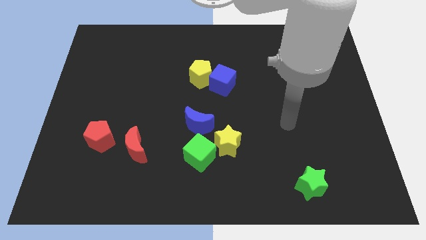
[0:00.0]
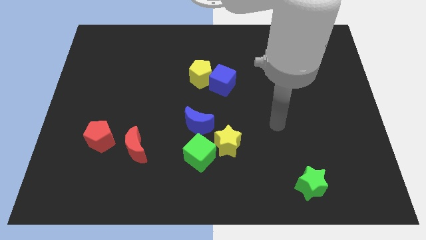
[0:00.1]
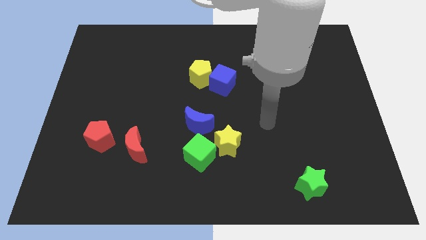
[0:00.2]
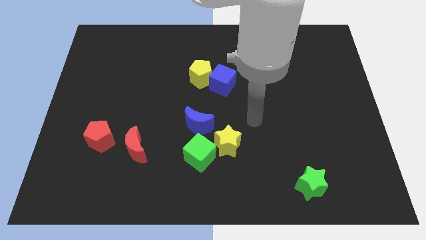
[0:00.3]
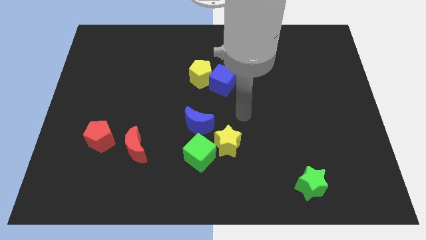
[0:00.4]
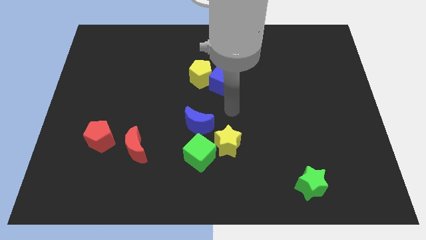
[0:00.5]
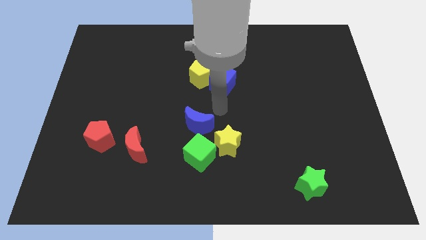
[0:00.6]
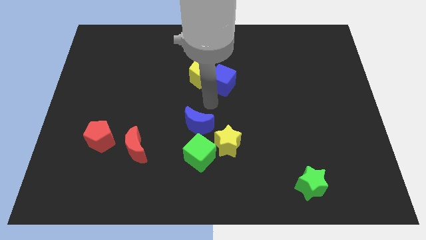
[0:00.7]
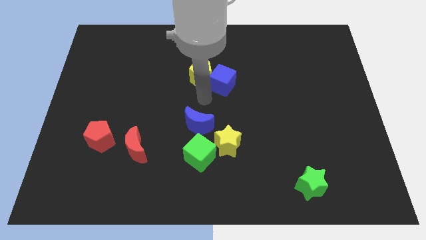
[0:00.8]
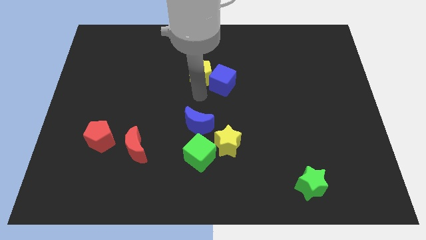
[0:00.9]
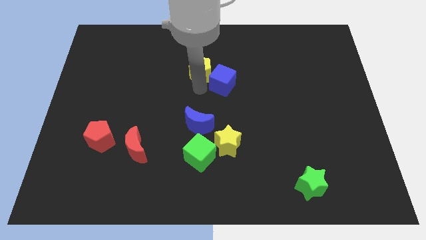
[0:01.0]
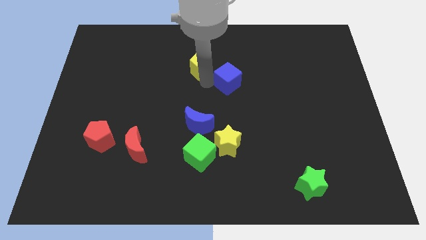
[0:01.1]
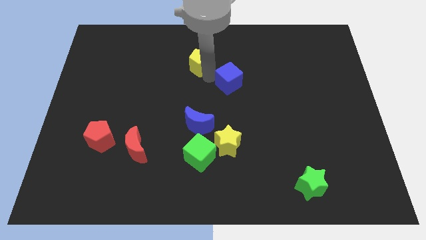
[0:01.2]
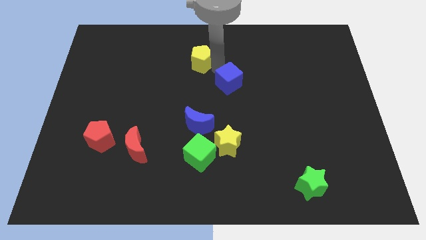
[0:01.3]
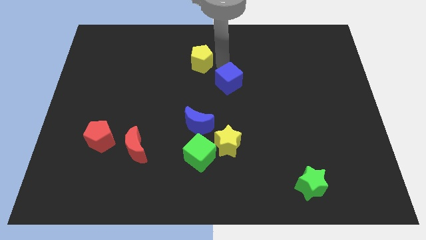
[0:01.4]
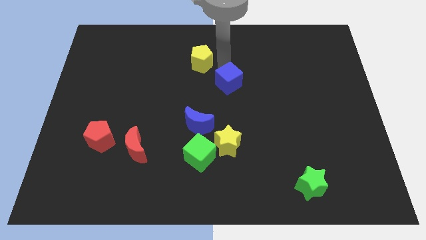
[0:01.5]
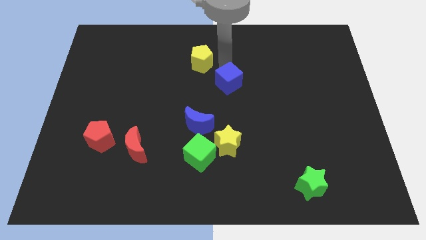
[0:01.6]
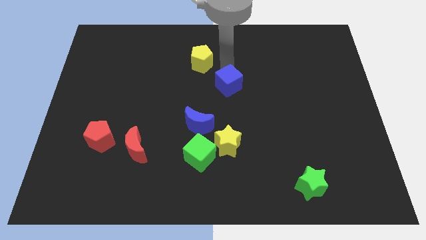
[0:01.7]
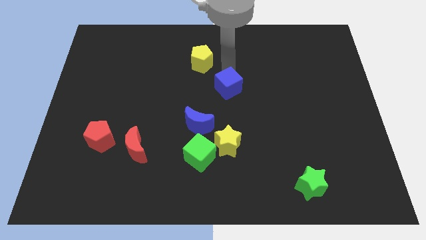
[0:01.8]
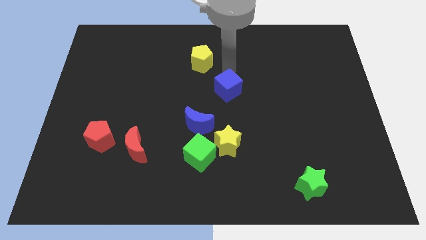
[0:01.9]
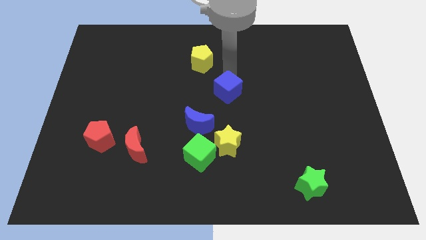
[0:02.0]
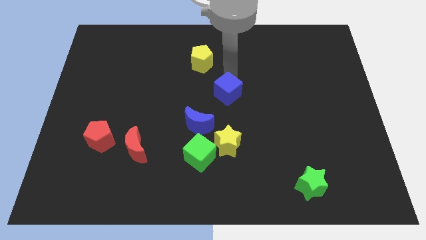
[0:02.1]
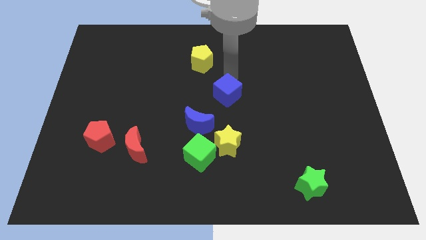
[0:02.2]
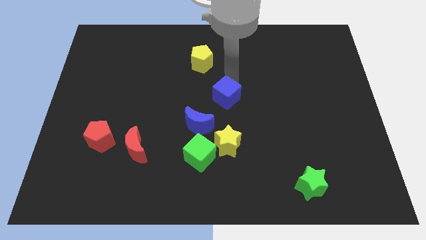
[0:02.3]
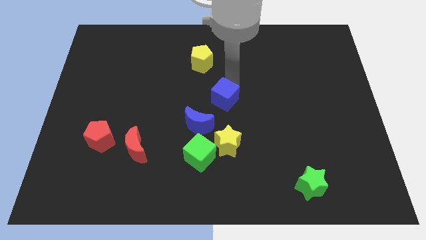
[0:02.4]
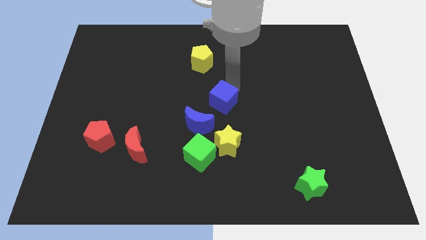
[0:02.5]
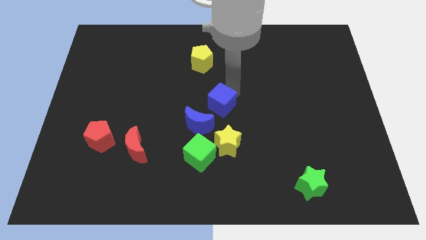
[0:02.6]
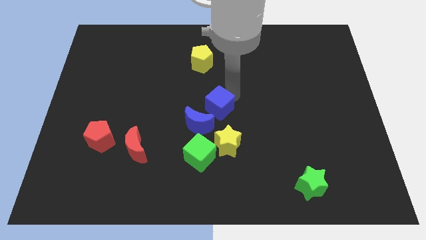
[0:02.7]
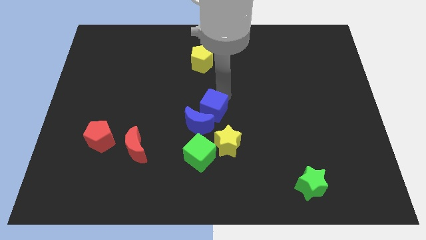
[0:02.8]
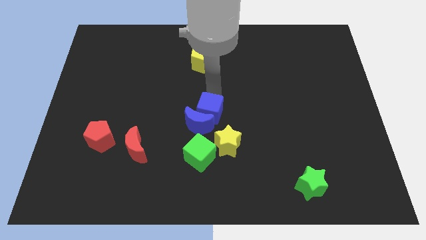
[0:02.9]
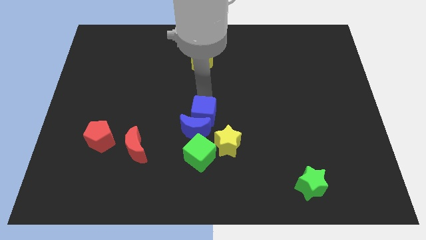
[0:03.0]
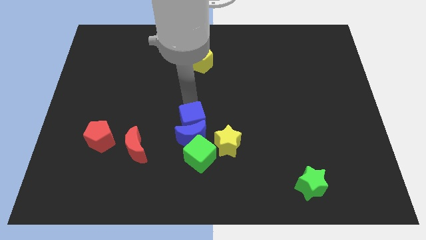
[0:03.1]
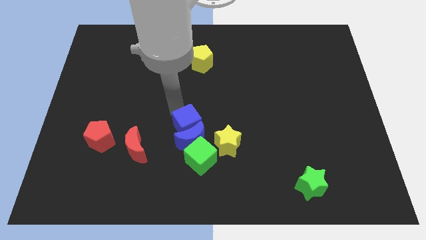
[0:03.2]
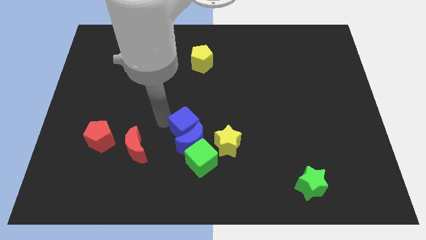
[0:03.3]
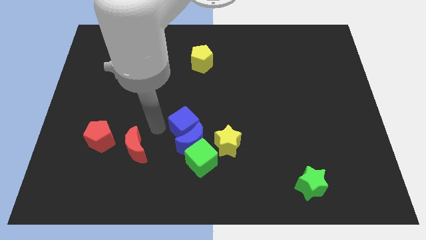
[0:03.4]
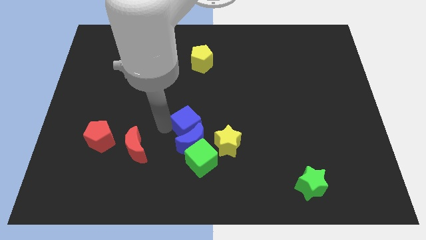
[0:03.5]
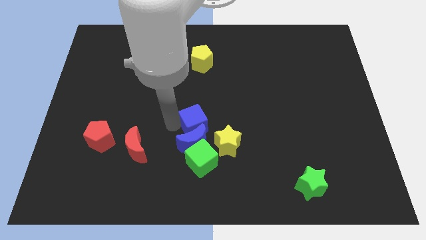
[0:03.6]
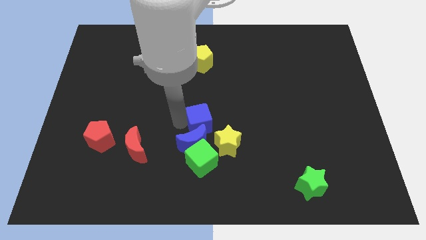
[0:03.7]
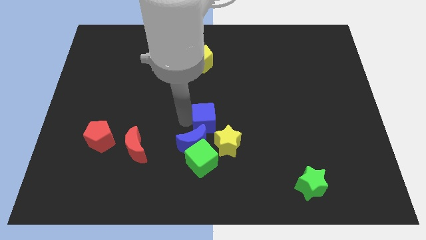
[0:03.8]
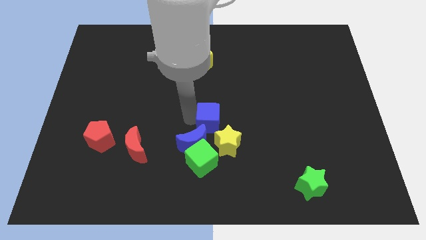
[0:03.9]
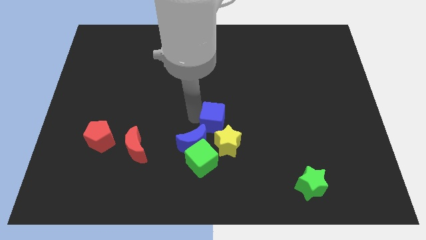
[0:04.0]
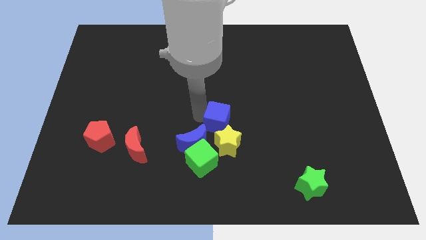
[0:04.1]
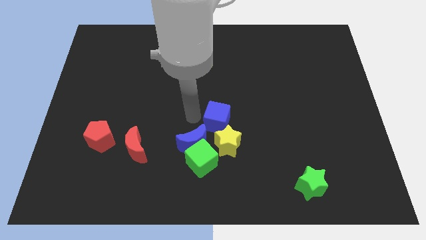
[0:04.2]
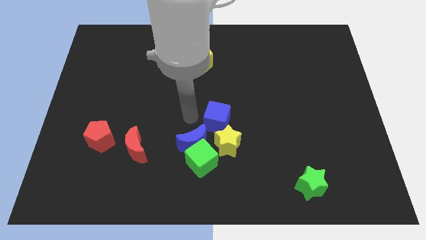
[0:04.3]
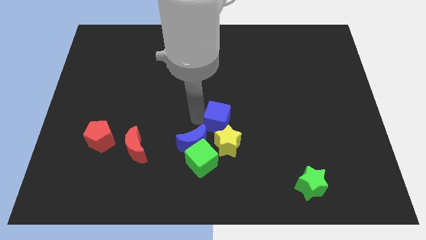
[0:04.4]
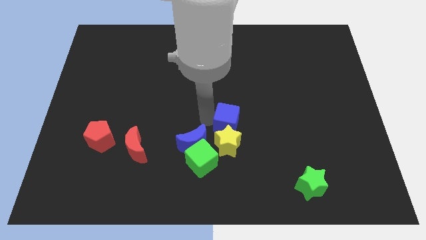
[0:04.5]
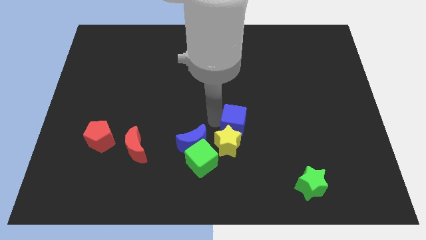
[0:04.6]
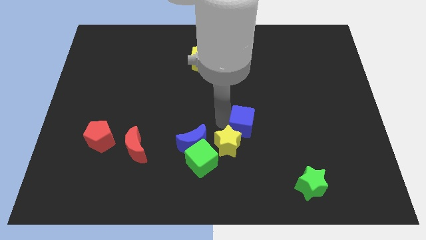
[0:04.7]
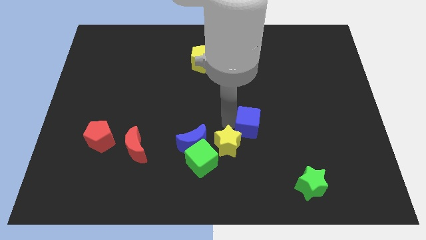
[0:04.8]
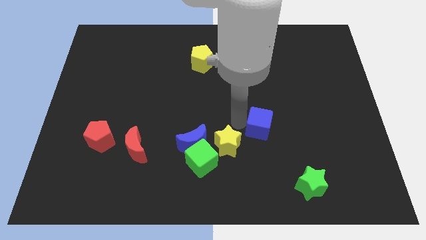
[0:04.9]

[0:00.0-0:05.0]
put the blue cube right of the yellow star

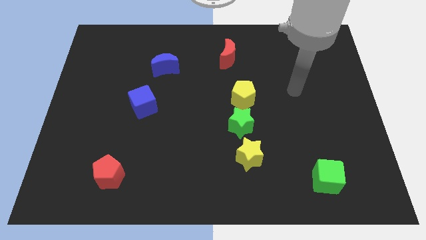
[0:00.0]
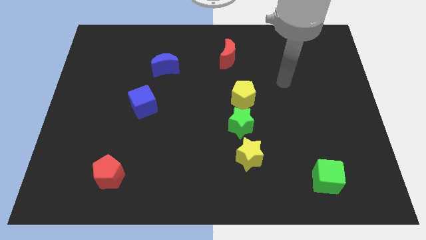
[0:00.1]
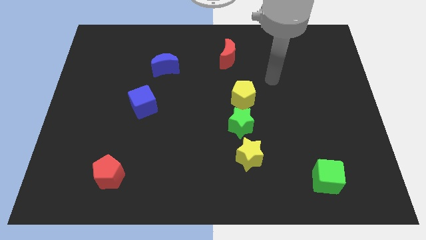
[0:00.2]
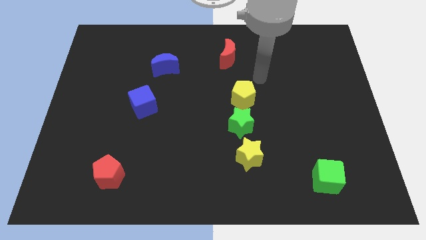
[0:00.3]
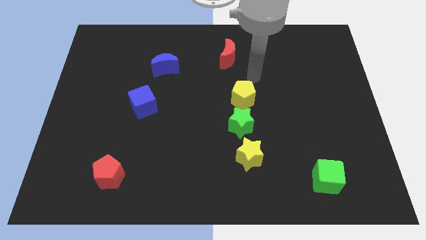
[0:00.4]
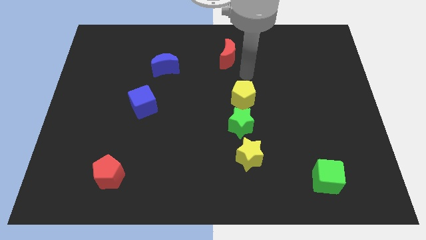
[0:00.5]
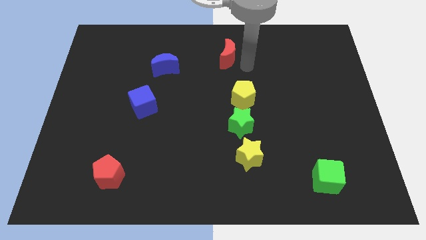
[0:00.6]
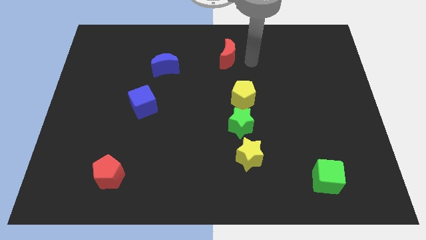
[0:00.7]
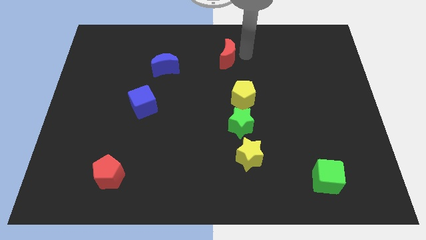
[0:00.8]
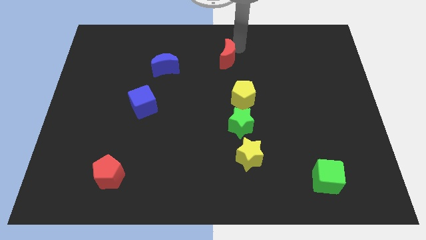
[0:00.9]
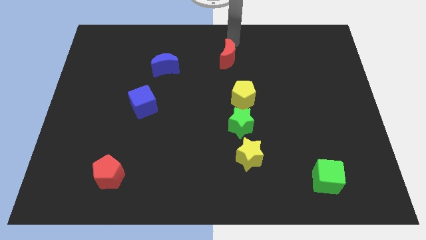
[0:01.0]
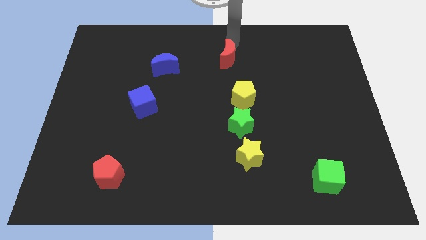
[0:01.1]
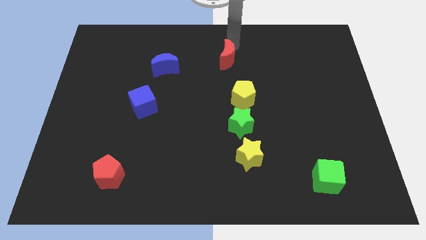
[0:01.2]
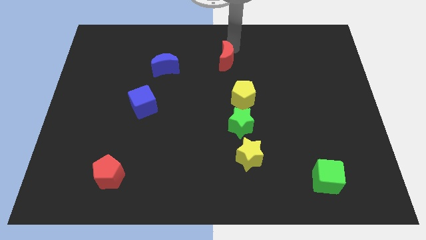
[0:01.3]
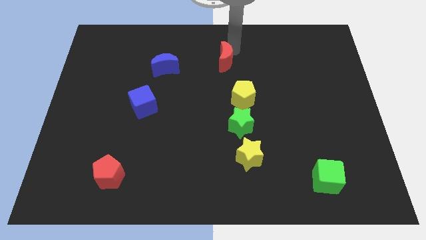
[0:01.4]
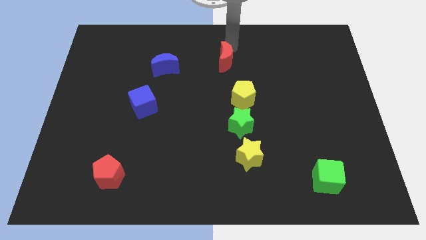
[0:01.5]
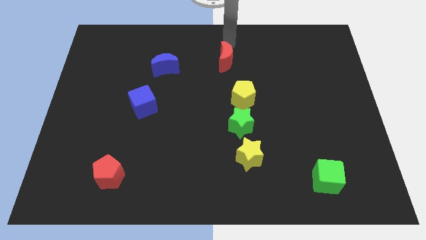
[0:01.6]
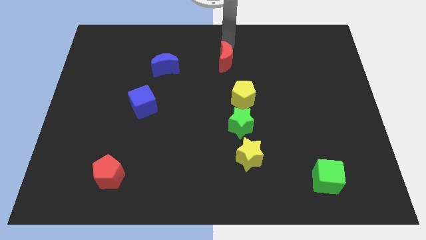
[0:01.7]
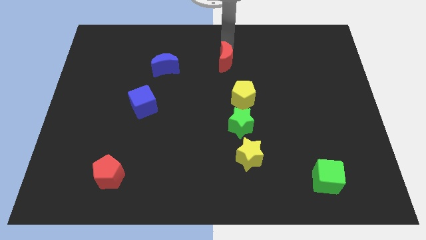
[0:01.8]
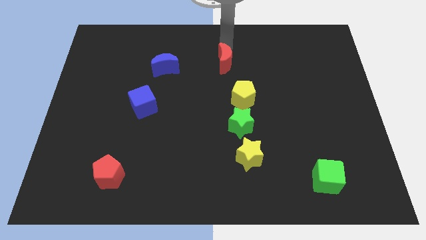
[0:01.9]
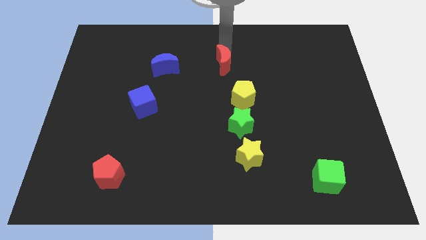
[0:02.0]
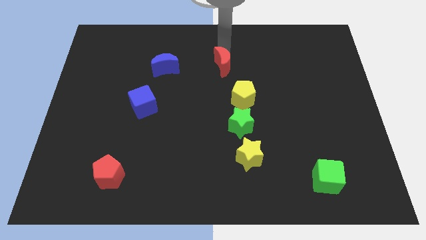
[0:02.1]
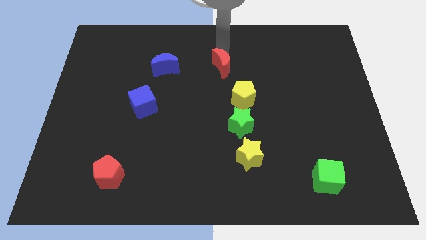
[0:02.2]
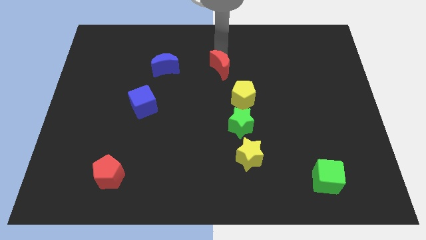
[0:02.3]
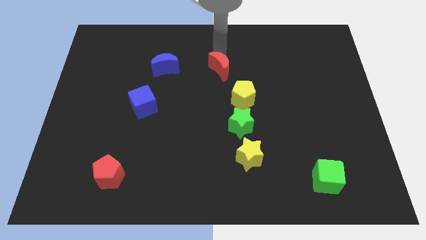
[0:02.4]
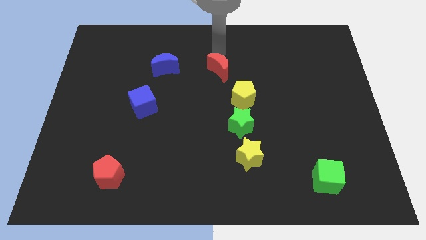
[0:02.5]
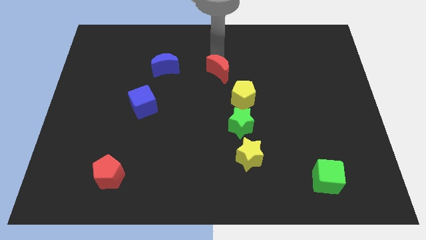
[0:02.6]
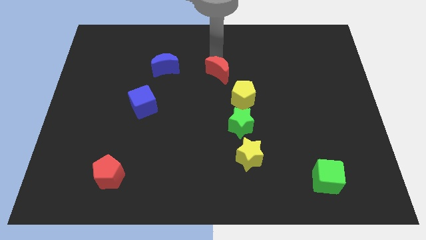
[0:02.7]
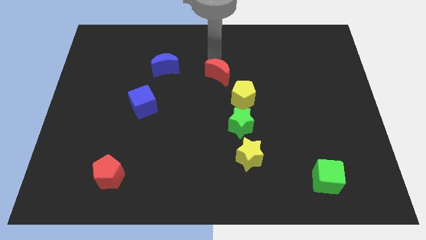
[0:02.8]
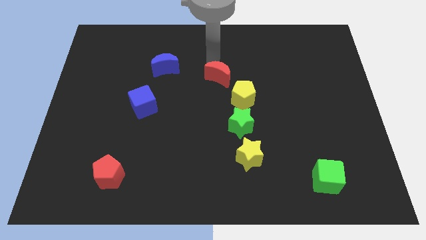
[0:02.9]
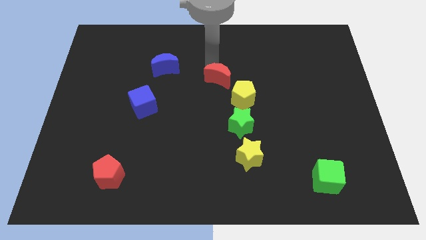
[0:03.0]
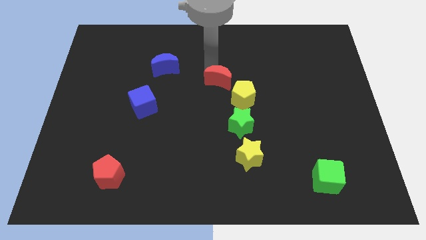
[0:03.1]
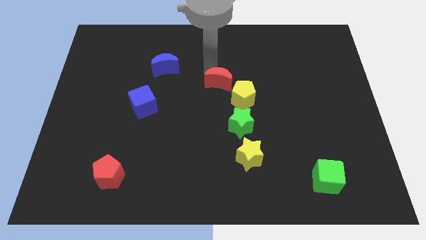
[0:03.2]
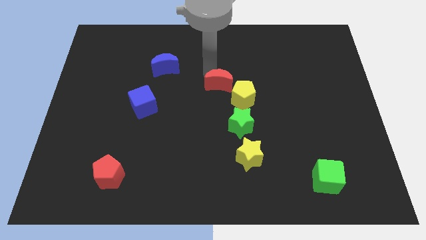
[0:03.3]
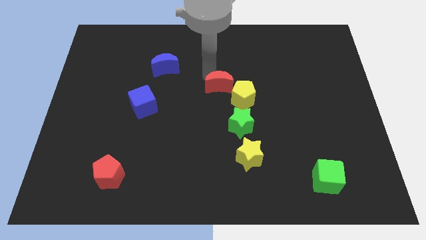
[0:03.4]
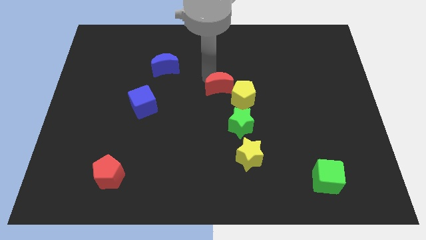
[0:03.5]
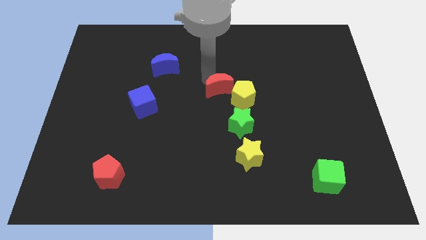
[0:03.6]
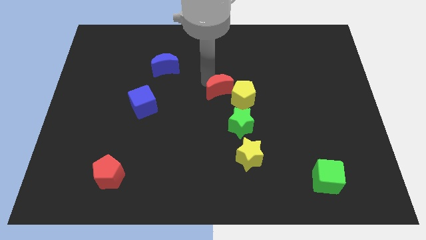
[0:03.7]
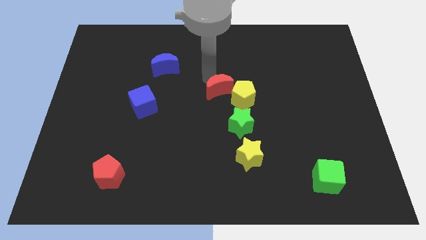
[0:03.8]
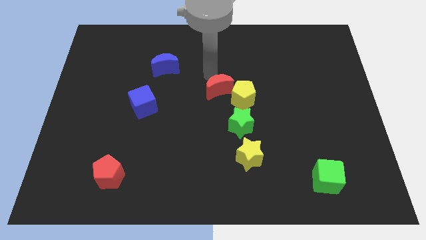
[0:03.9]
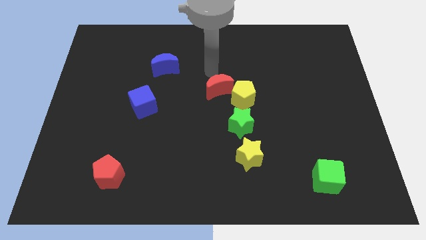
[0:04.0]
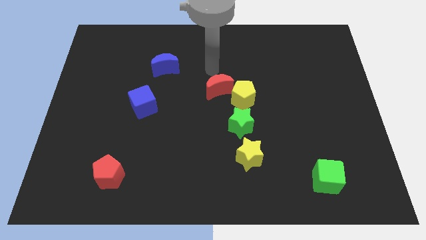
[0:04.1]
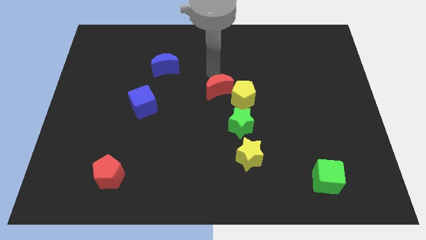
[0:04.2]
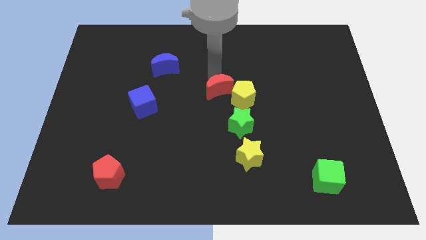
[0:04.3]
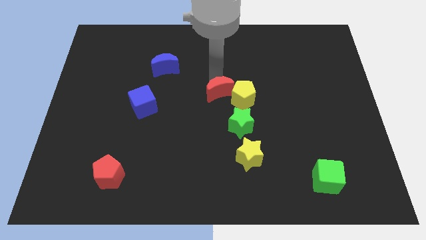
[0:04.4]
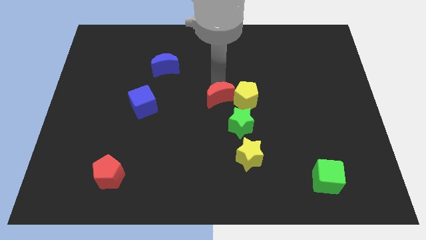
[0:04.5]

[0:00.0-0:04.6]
put the red moon to the bottom left of the yellow pentagon
